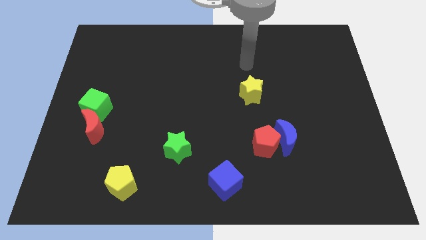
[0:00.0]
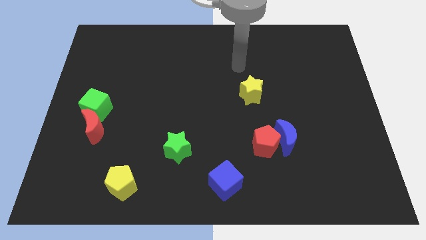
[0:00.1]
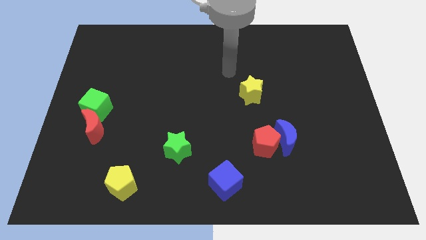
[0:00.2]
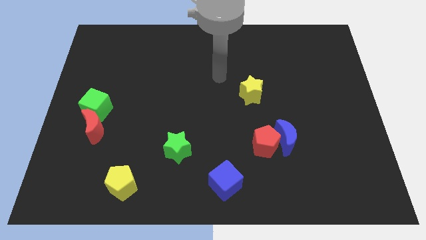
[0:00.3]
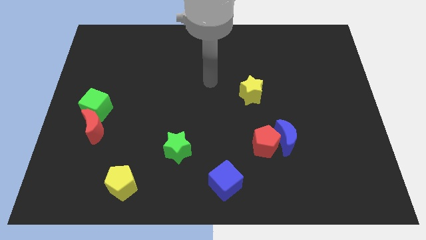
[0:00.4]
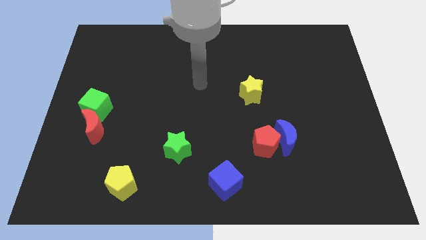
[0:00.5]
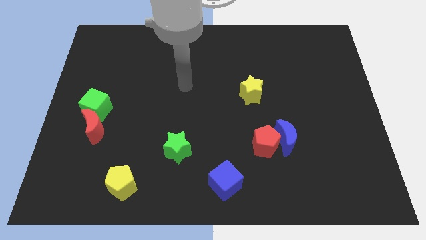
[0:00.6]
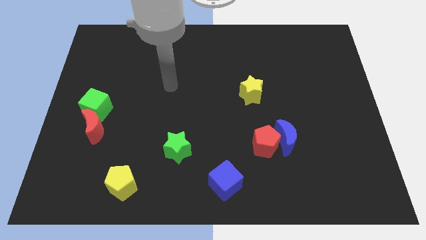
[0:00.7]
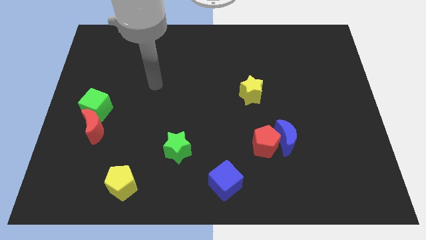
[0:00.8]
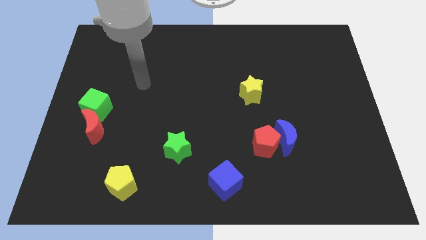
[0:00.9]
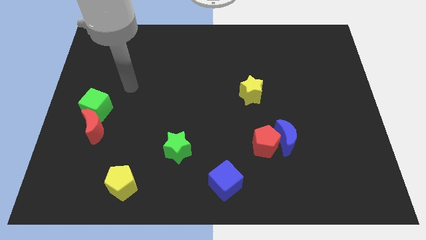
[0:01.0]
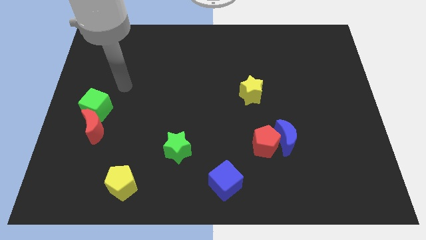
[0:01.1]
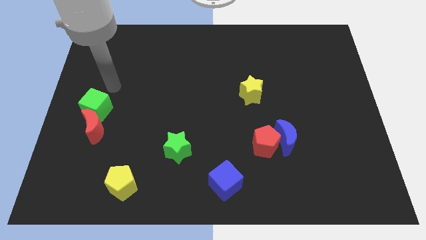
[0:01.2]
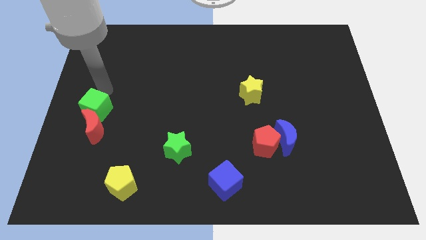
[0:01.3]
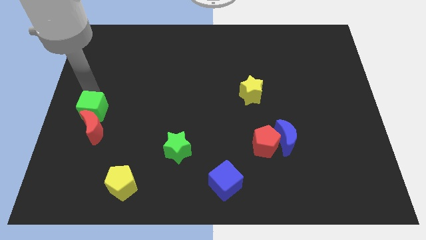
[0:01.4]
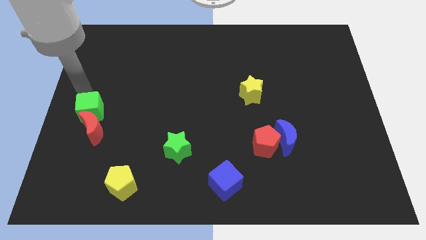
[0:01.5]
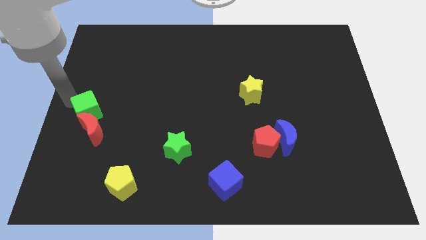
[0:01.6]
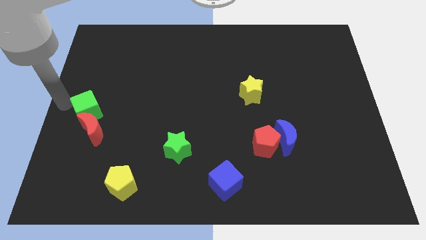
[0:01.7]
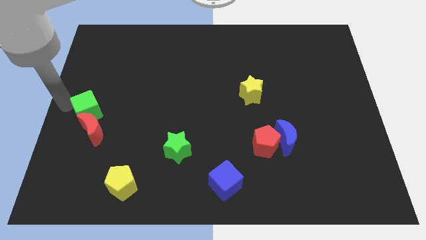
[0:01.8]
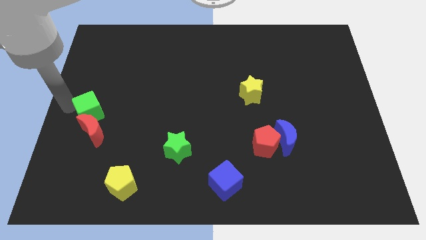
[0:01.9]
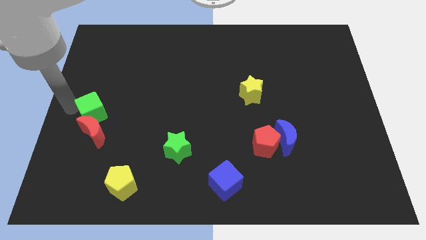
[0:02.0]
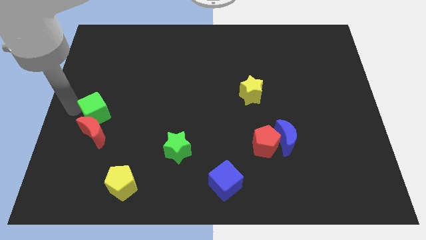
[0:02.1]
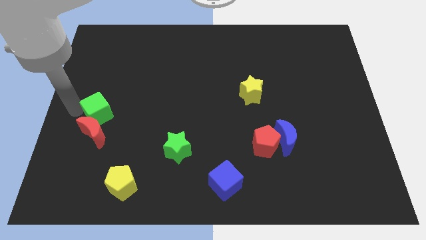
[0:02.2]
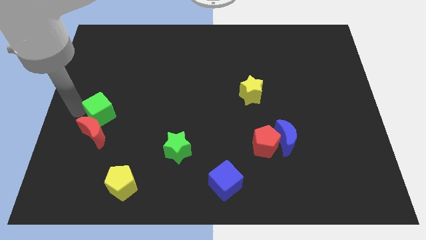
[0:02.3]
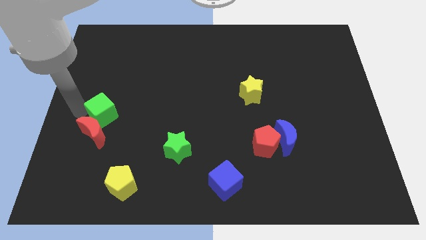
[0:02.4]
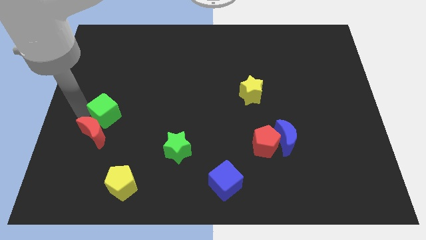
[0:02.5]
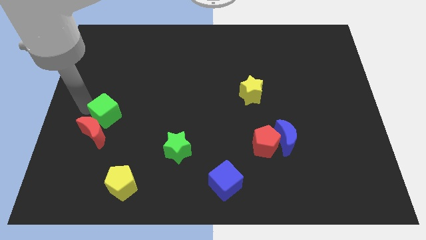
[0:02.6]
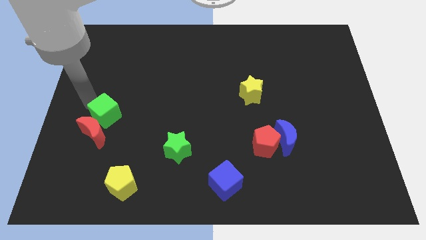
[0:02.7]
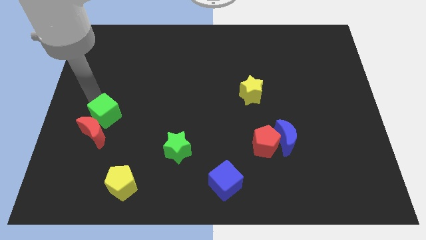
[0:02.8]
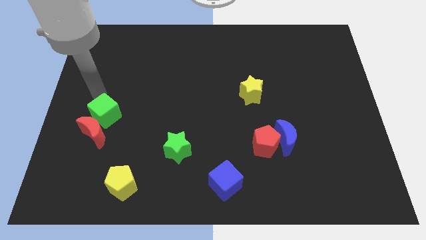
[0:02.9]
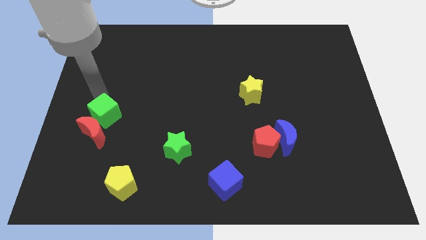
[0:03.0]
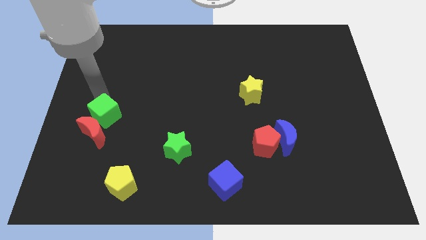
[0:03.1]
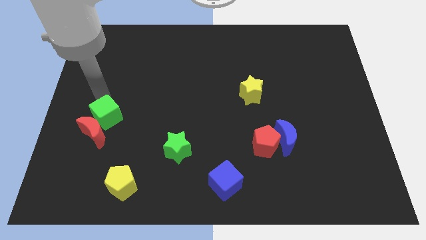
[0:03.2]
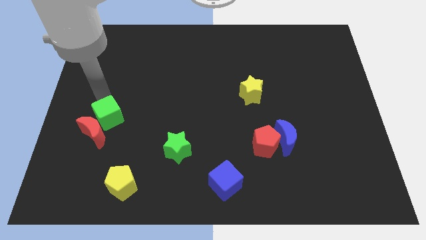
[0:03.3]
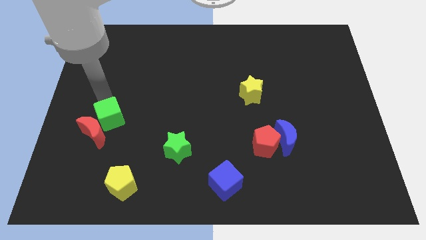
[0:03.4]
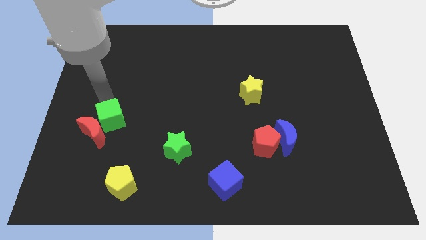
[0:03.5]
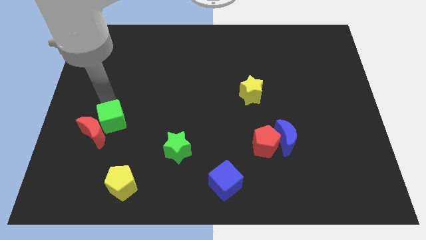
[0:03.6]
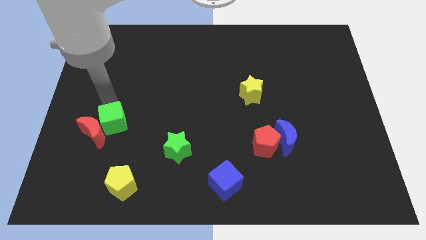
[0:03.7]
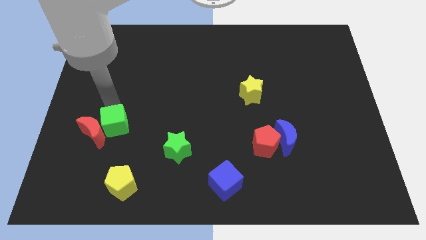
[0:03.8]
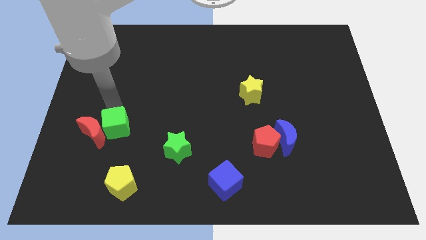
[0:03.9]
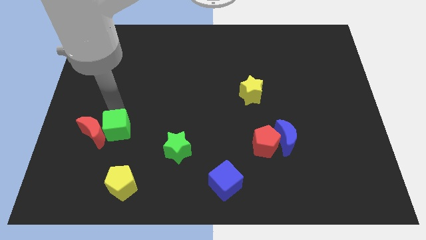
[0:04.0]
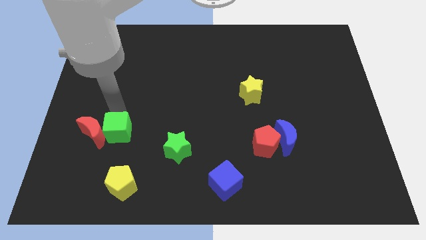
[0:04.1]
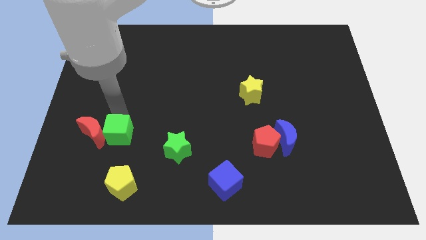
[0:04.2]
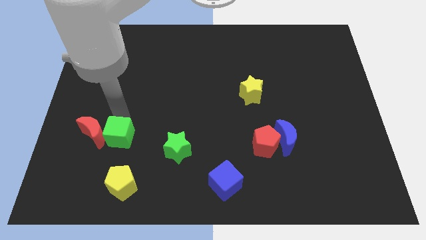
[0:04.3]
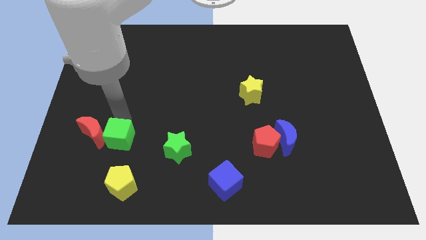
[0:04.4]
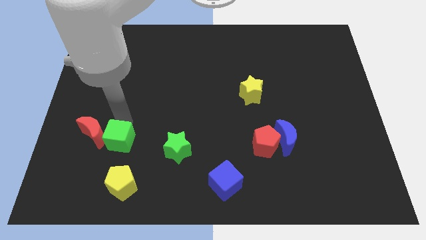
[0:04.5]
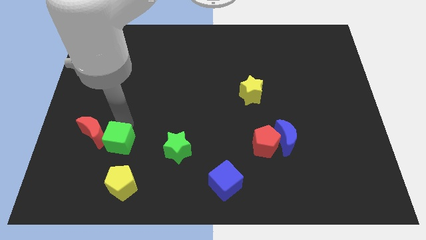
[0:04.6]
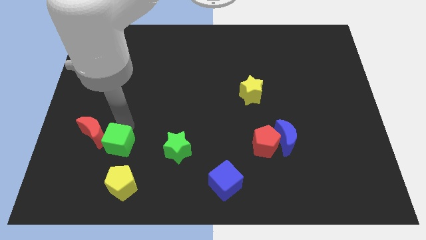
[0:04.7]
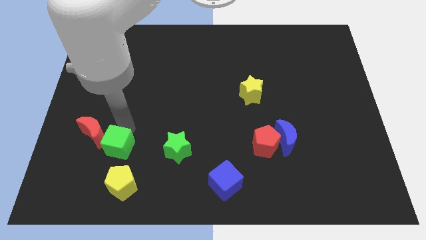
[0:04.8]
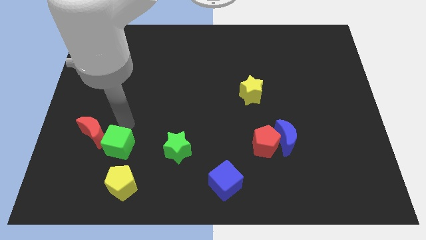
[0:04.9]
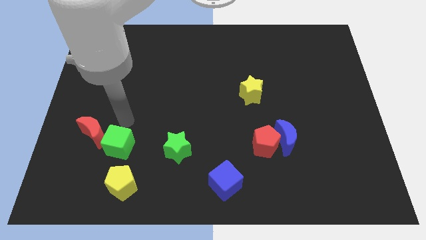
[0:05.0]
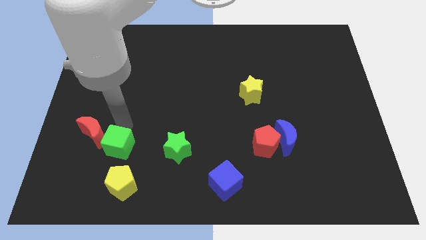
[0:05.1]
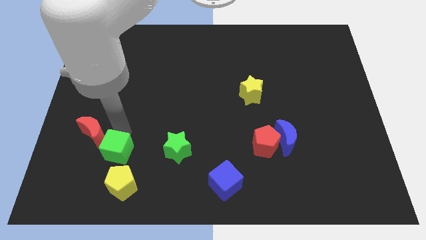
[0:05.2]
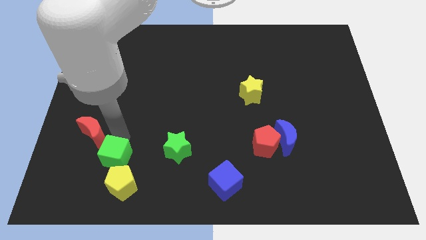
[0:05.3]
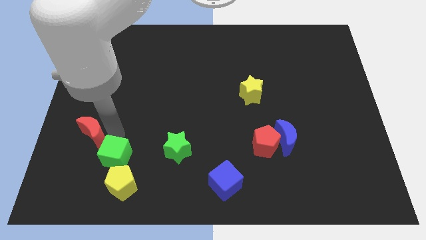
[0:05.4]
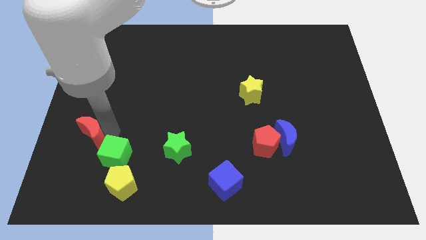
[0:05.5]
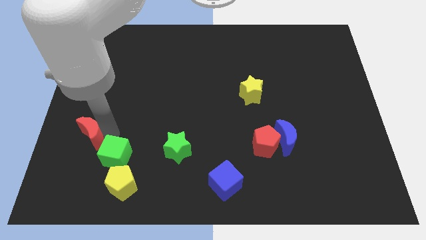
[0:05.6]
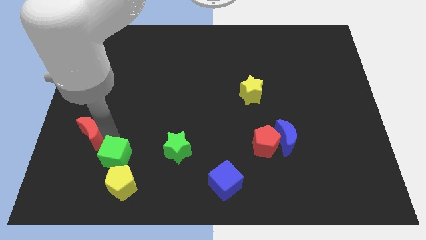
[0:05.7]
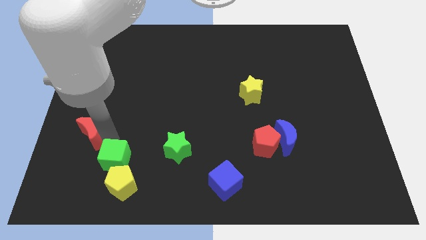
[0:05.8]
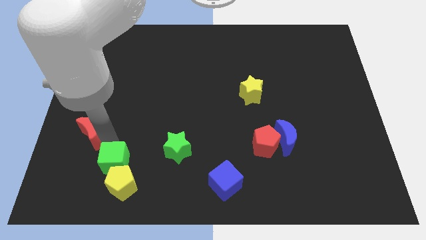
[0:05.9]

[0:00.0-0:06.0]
put the green cube to the yellow pentagon

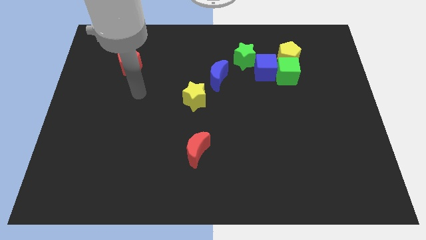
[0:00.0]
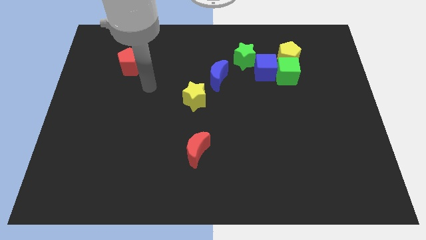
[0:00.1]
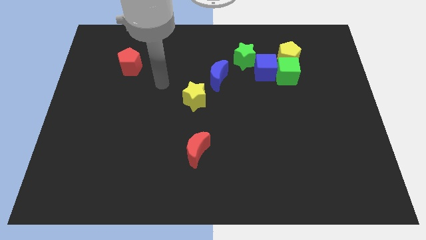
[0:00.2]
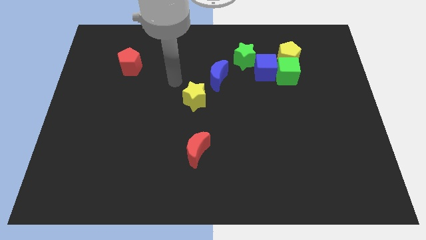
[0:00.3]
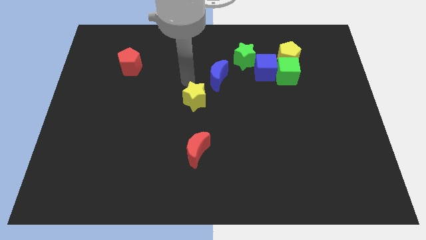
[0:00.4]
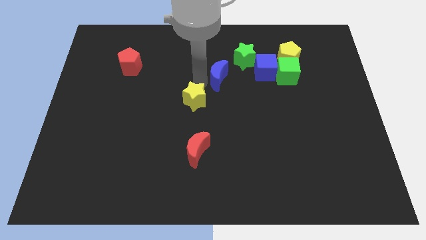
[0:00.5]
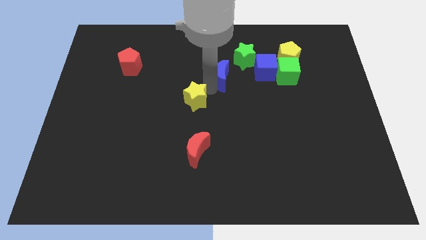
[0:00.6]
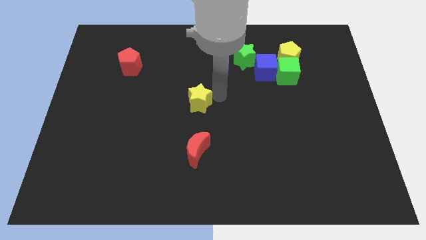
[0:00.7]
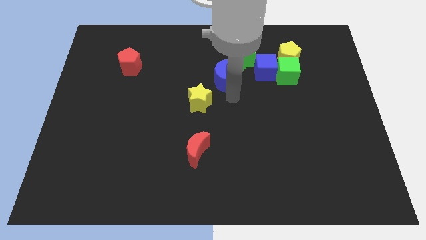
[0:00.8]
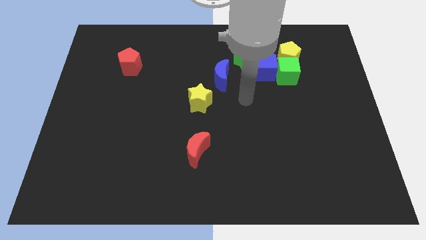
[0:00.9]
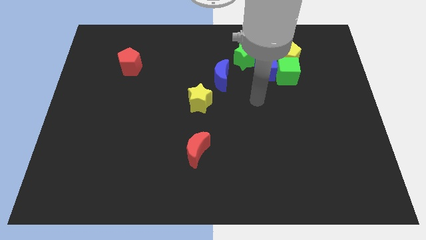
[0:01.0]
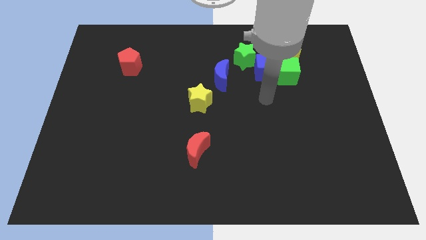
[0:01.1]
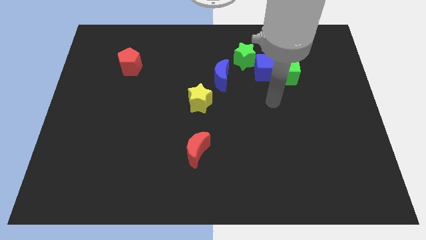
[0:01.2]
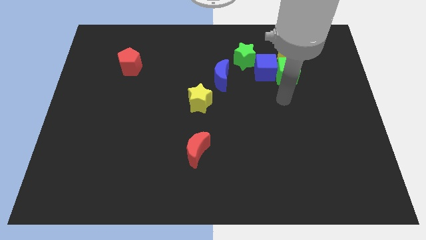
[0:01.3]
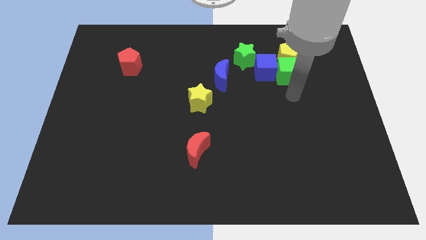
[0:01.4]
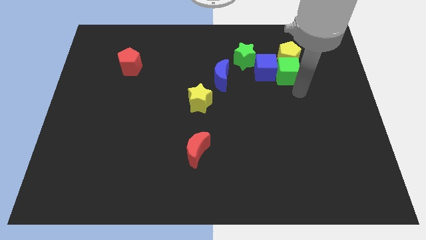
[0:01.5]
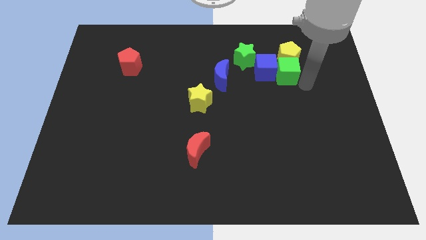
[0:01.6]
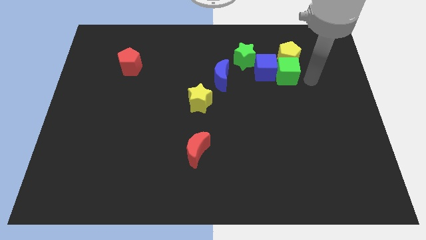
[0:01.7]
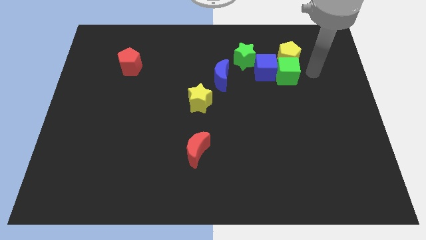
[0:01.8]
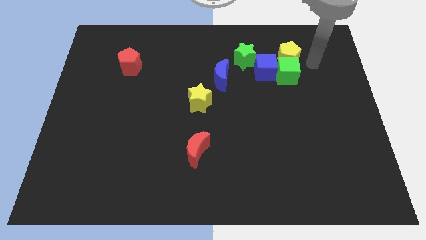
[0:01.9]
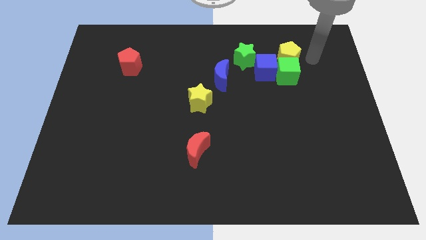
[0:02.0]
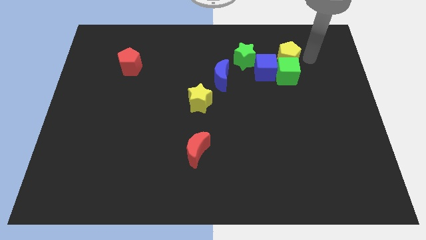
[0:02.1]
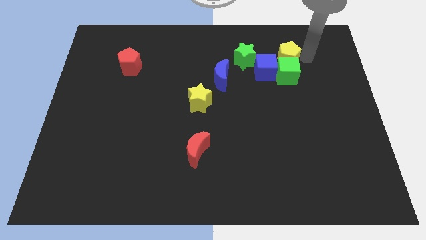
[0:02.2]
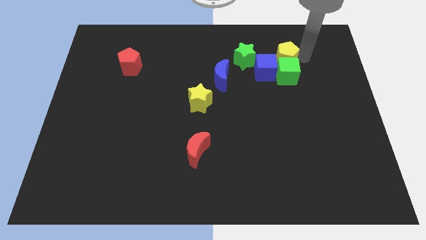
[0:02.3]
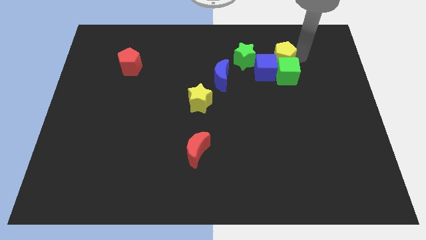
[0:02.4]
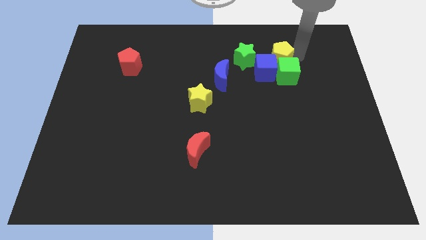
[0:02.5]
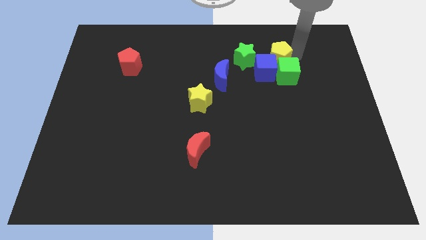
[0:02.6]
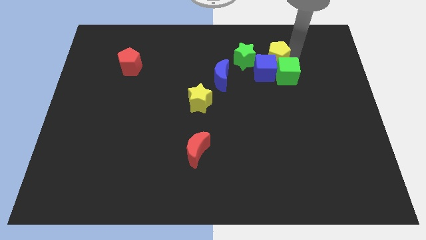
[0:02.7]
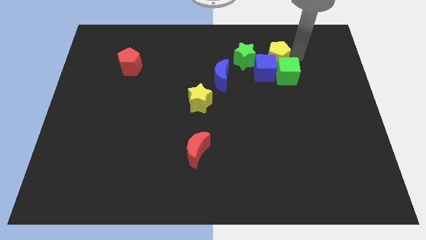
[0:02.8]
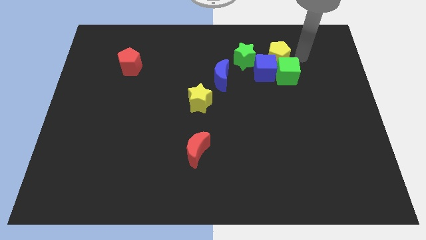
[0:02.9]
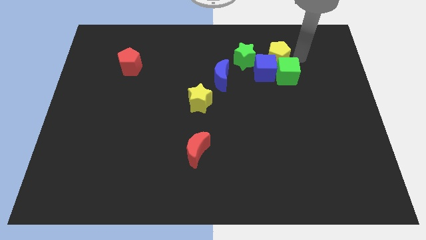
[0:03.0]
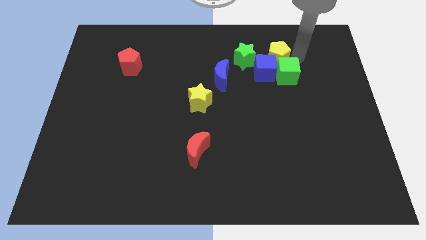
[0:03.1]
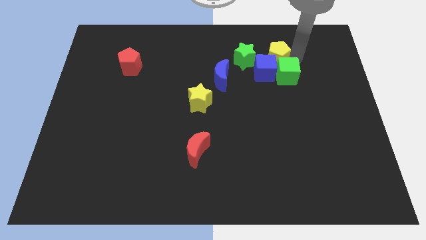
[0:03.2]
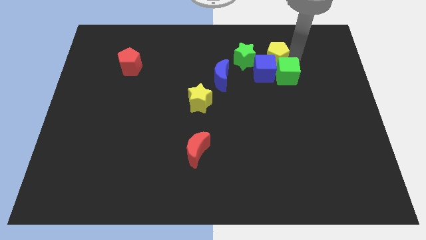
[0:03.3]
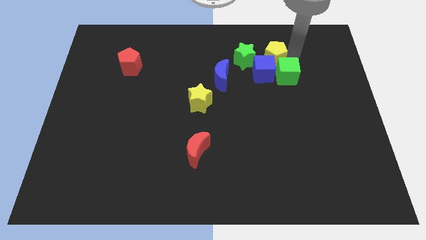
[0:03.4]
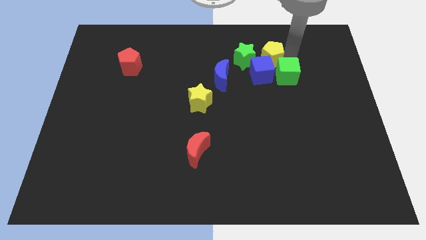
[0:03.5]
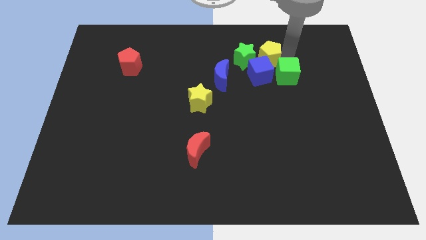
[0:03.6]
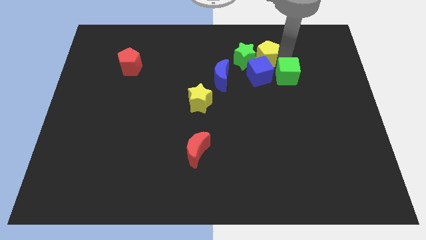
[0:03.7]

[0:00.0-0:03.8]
slide the yellow pentagon close to the green star
